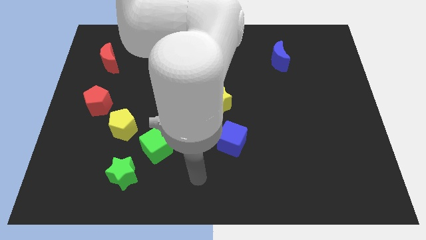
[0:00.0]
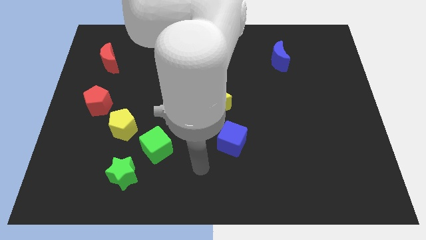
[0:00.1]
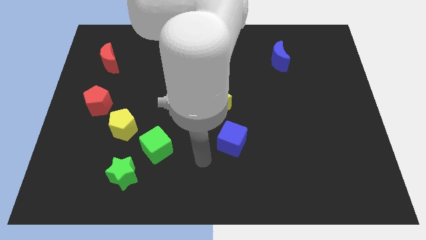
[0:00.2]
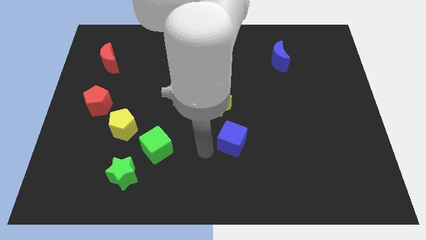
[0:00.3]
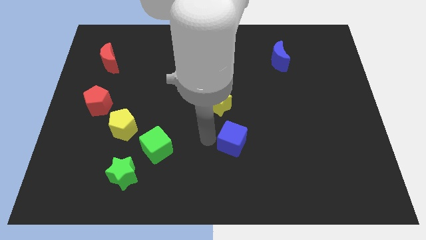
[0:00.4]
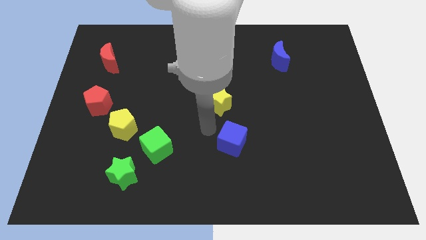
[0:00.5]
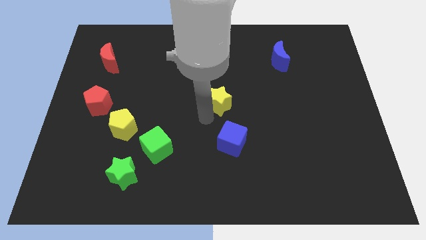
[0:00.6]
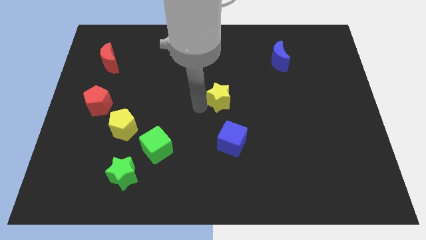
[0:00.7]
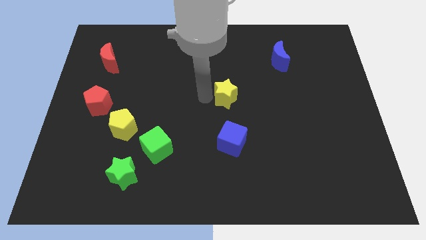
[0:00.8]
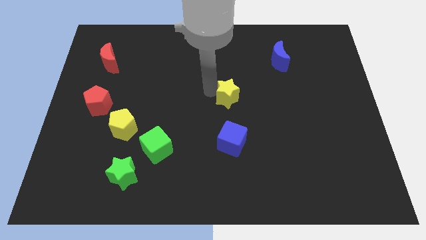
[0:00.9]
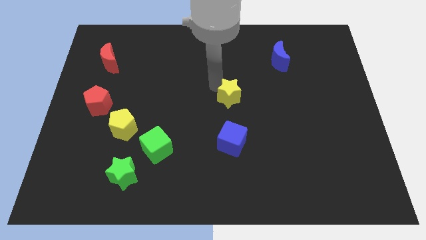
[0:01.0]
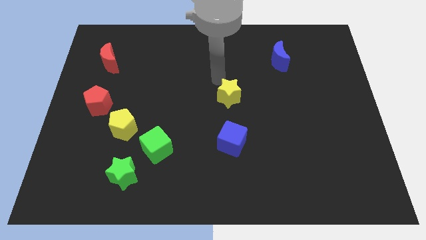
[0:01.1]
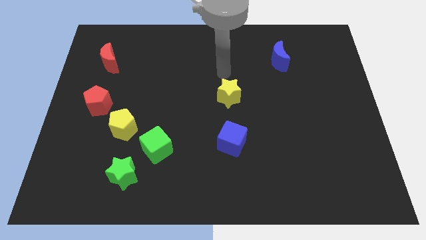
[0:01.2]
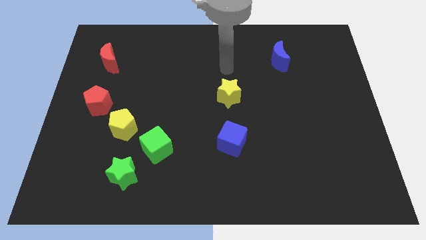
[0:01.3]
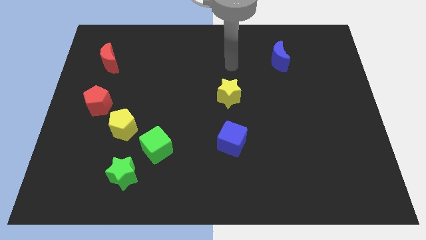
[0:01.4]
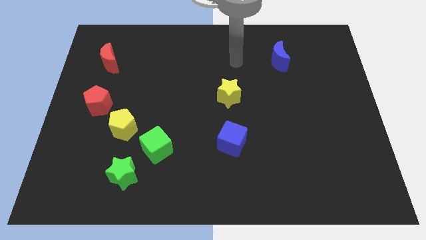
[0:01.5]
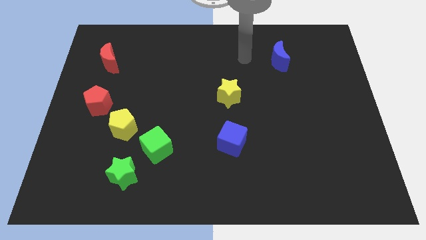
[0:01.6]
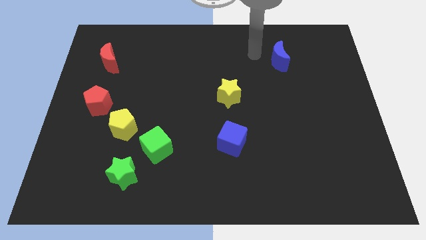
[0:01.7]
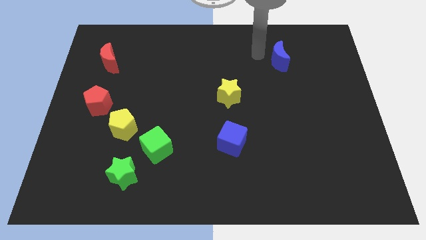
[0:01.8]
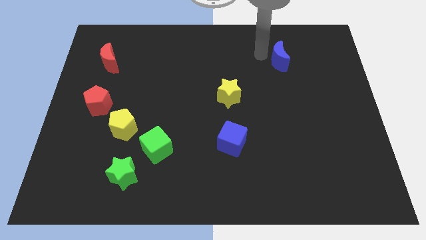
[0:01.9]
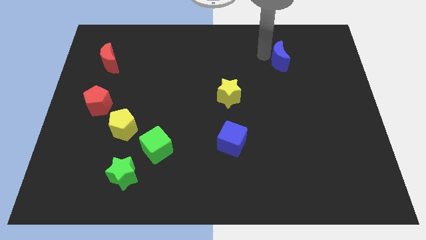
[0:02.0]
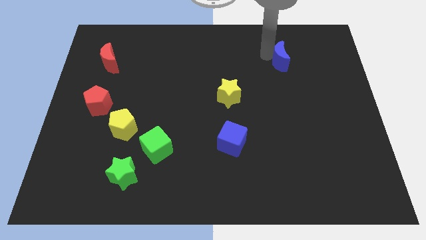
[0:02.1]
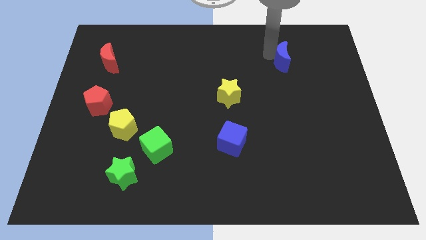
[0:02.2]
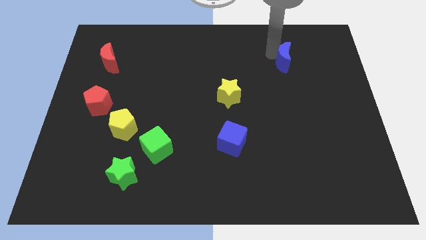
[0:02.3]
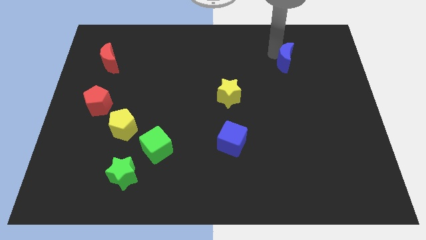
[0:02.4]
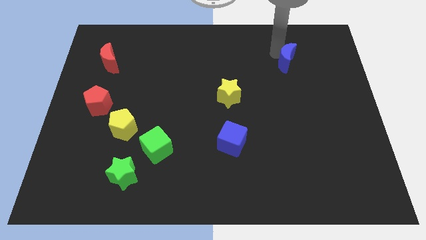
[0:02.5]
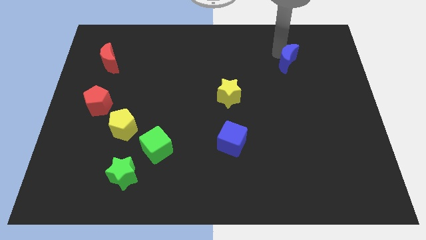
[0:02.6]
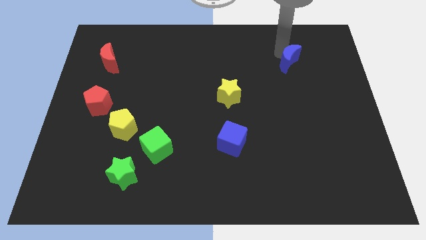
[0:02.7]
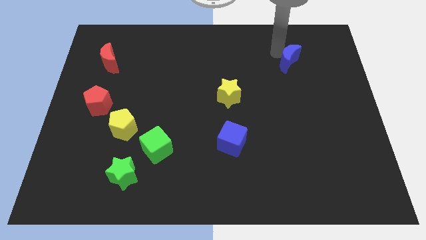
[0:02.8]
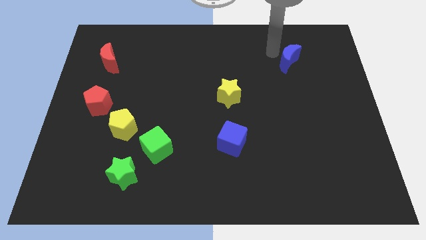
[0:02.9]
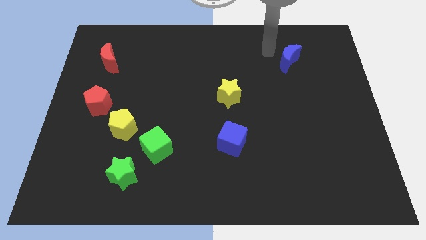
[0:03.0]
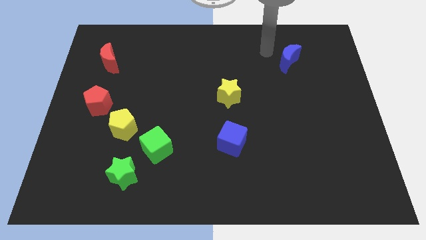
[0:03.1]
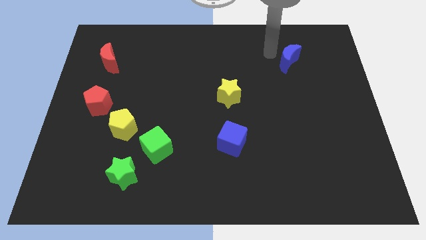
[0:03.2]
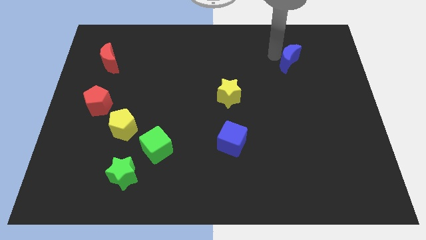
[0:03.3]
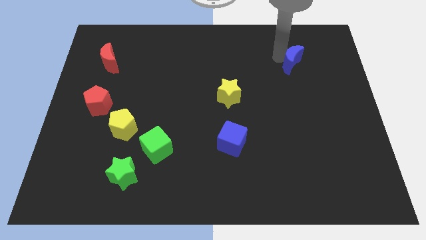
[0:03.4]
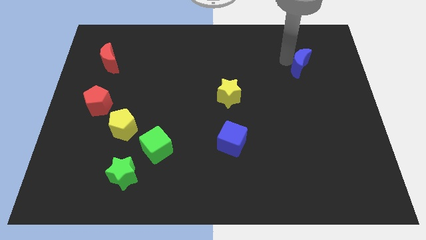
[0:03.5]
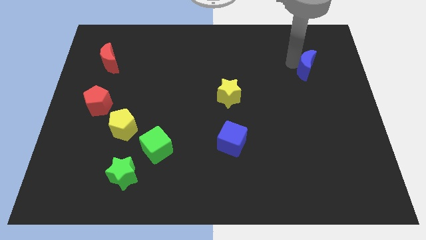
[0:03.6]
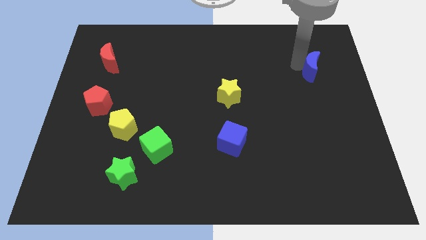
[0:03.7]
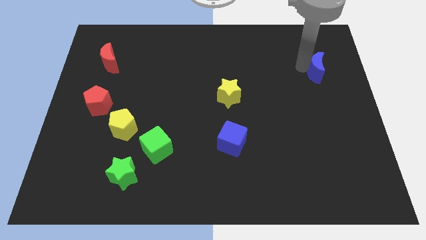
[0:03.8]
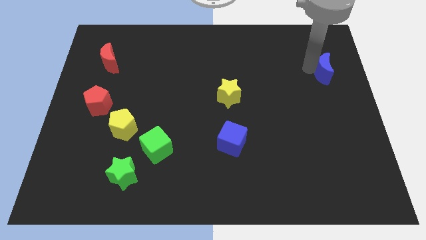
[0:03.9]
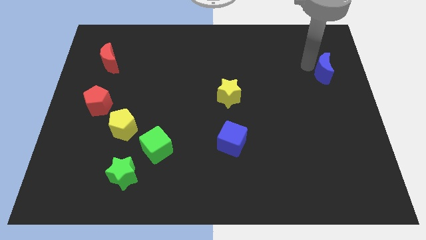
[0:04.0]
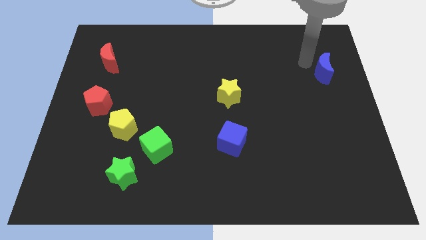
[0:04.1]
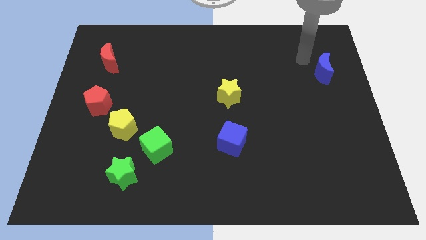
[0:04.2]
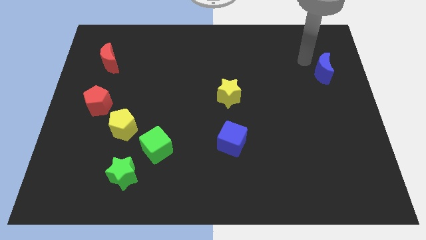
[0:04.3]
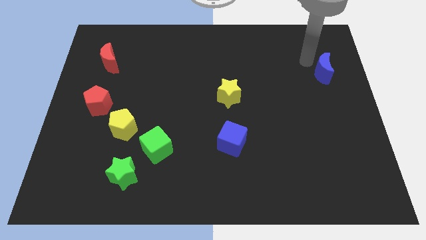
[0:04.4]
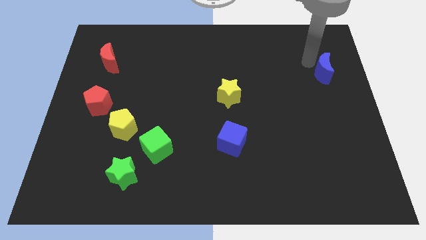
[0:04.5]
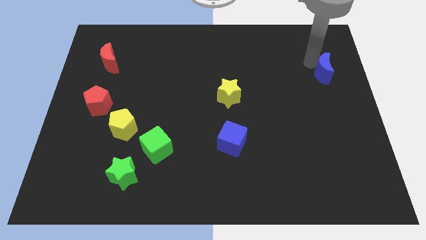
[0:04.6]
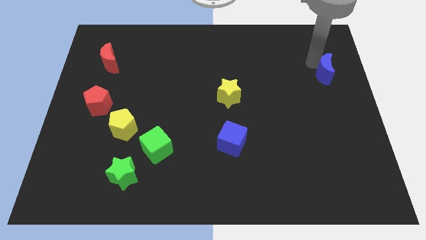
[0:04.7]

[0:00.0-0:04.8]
move the blue moon to the right side
